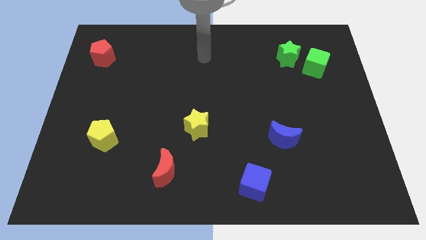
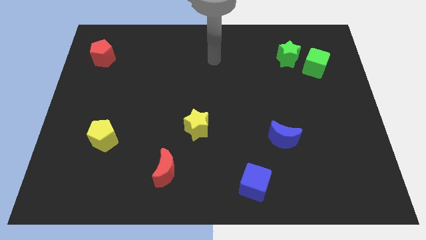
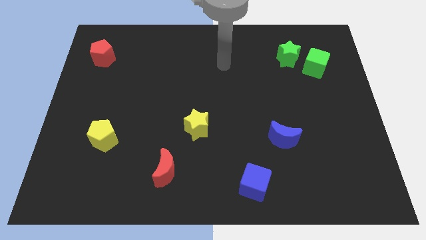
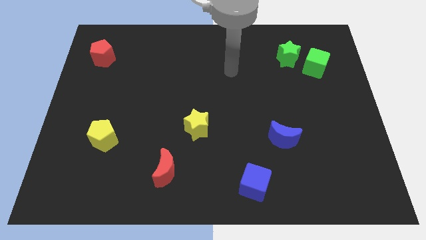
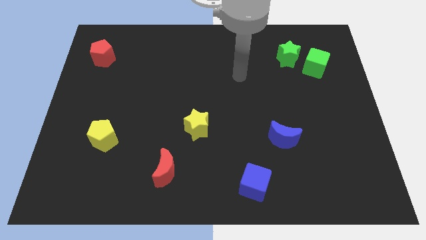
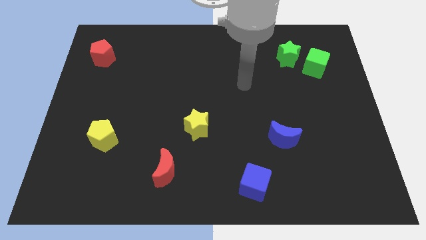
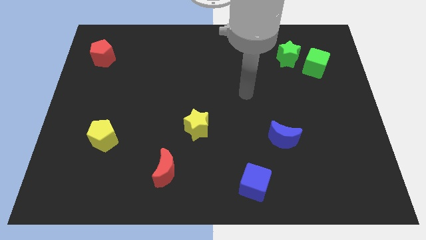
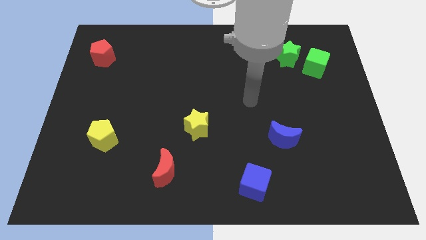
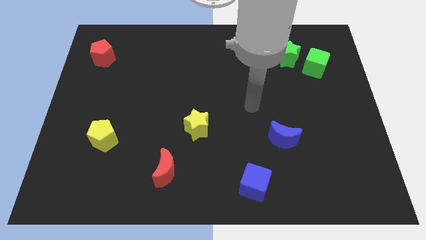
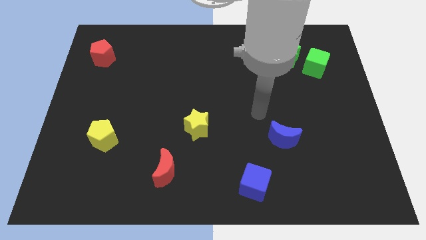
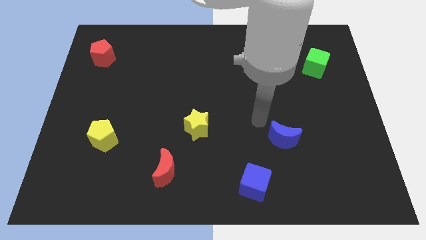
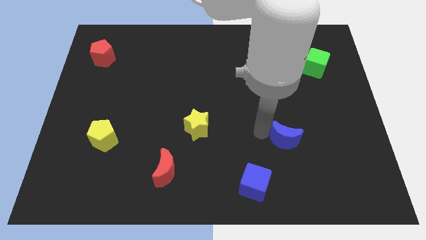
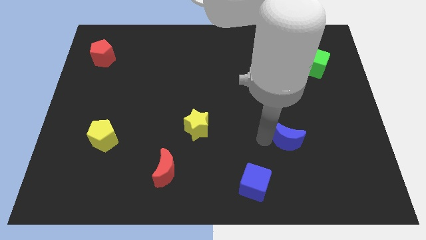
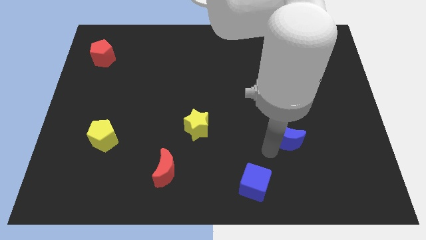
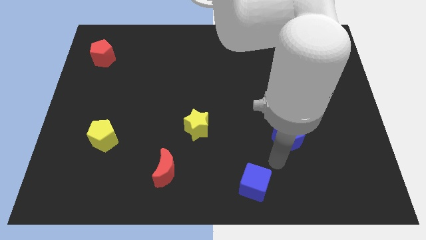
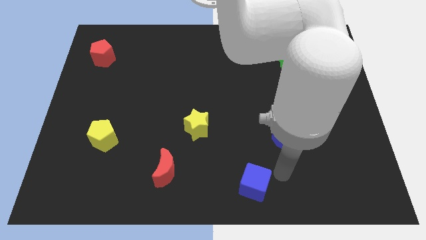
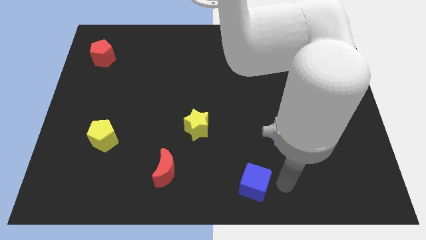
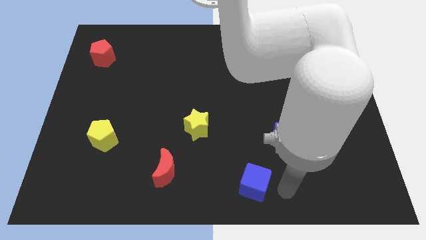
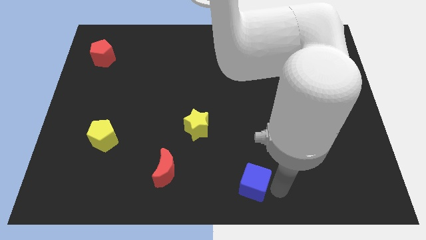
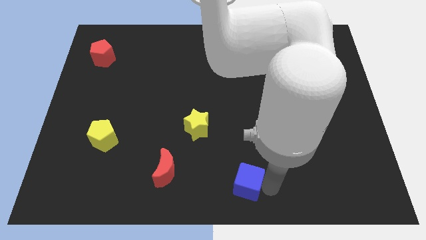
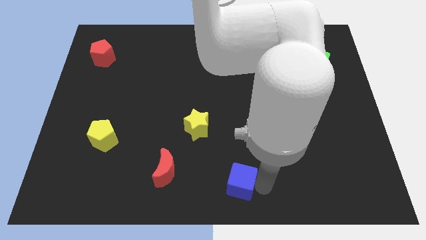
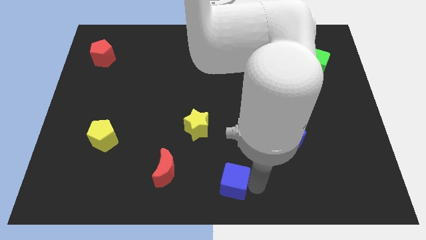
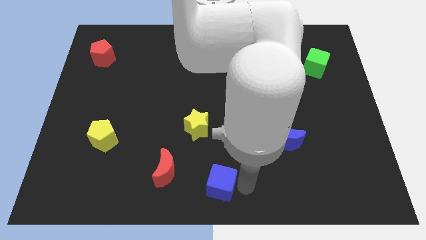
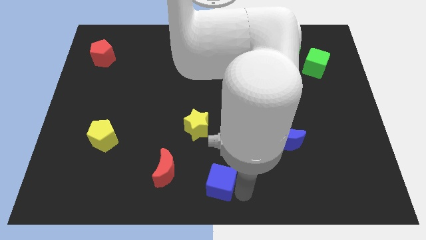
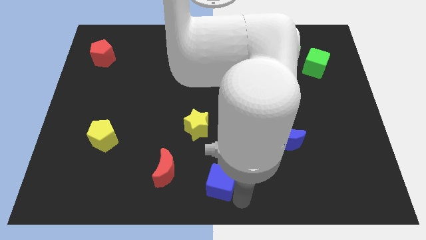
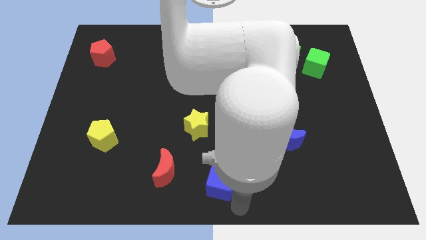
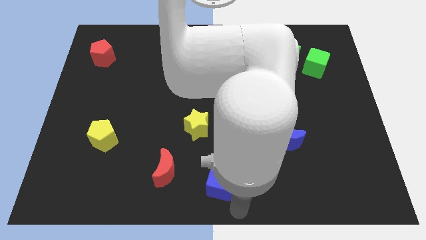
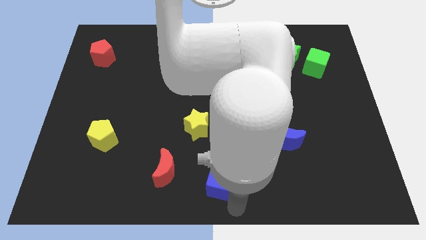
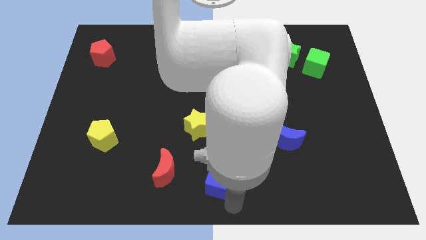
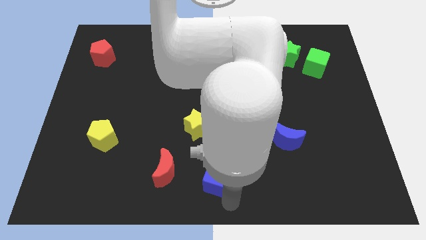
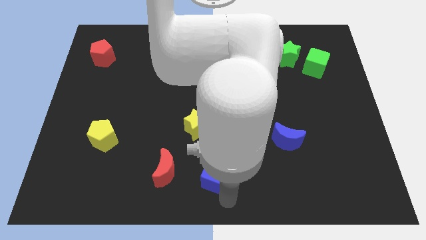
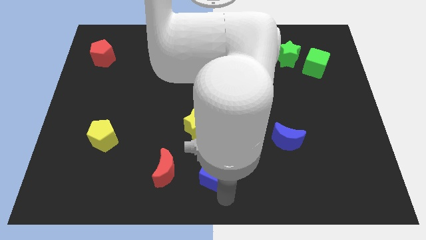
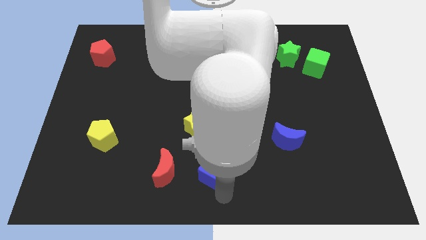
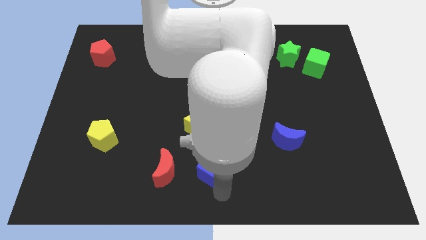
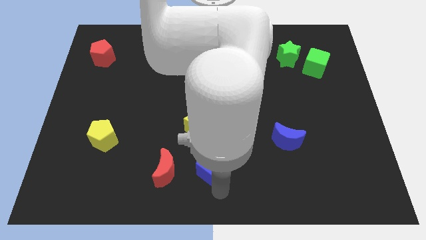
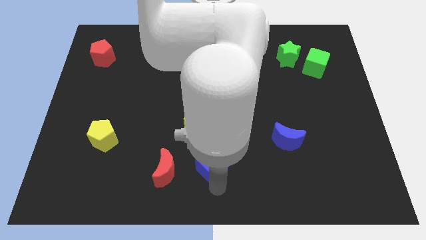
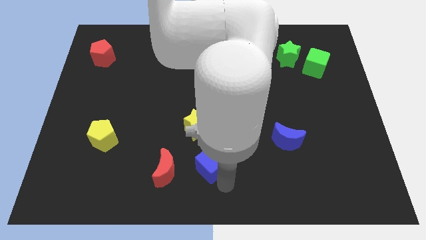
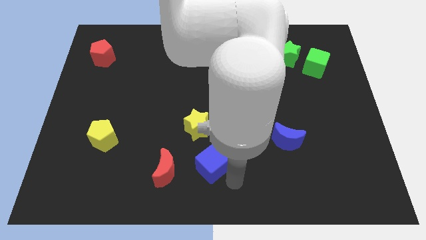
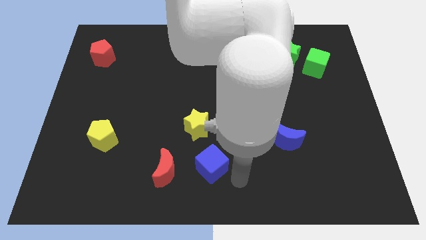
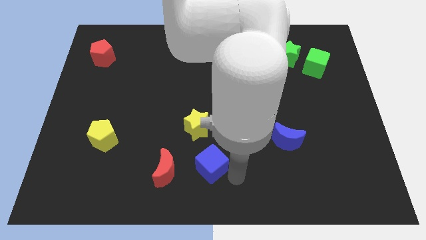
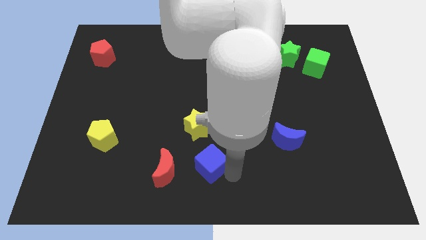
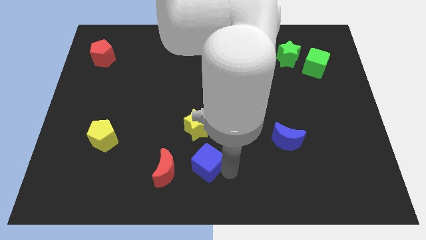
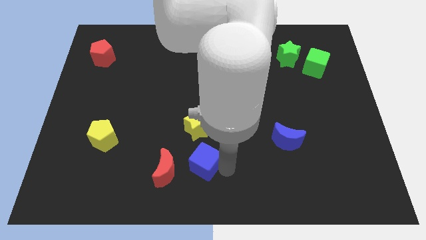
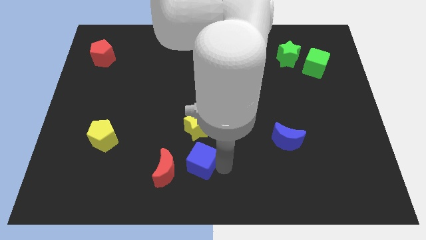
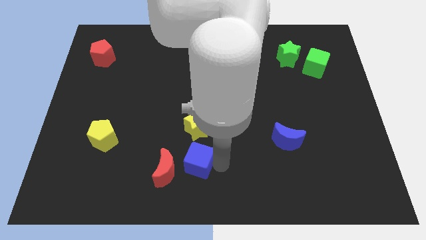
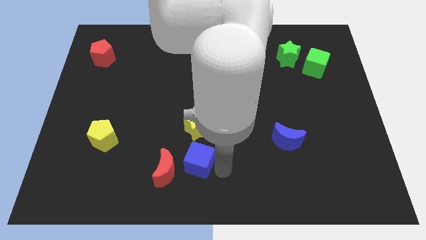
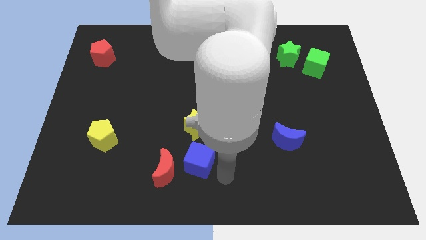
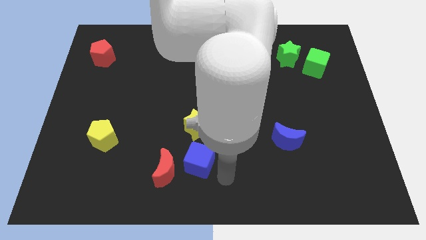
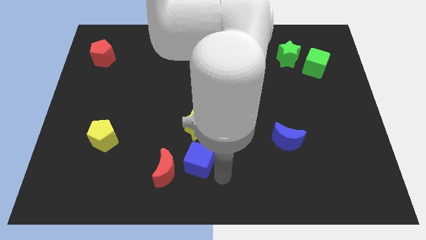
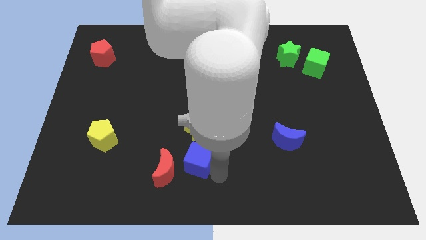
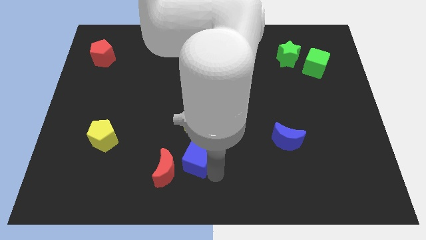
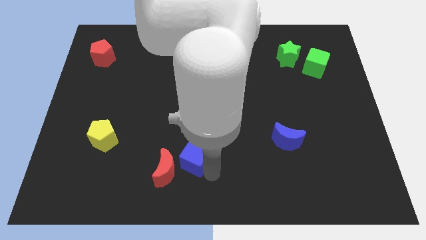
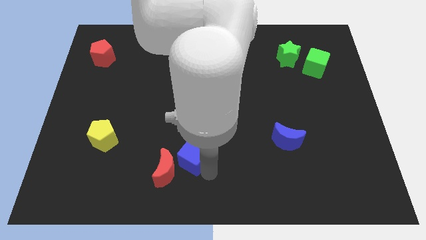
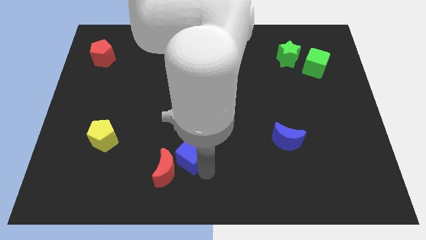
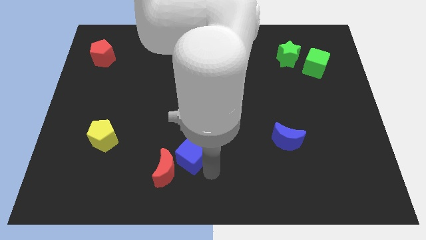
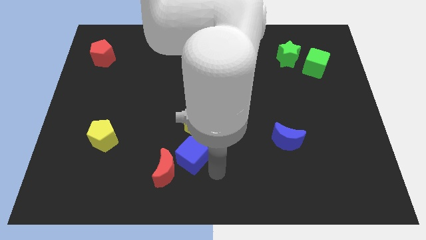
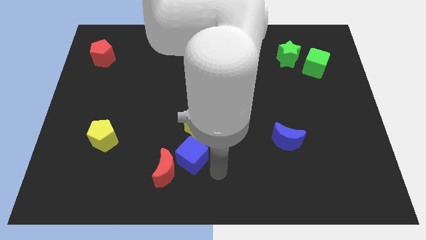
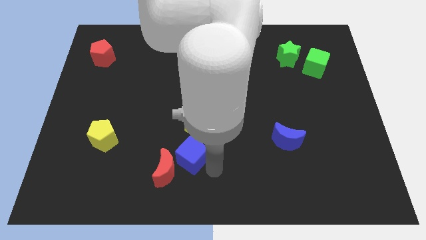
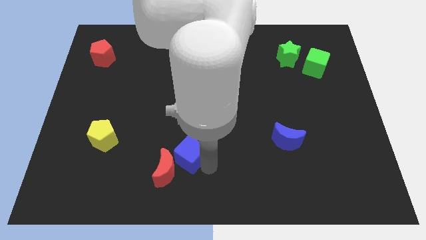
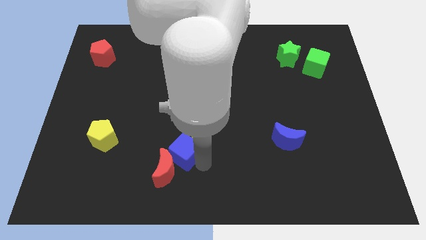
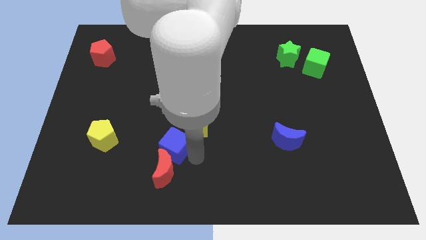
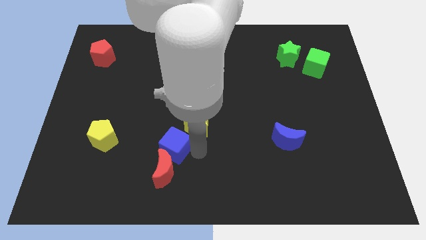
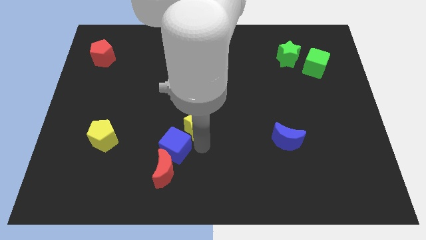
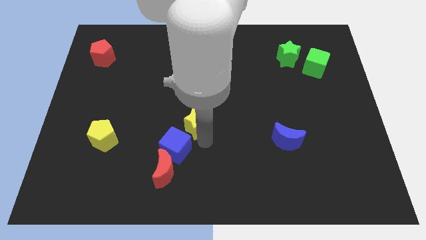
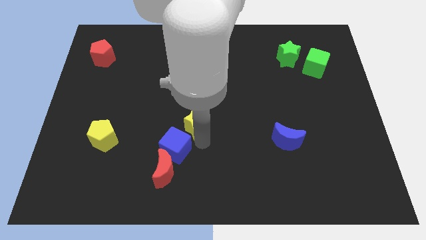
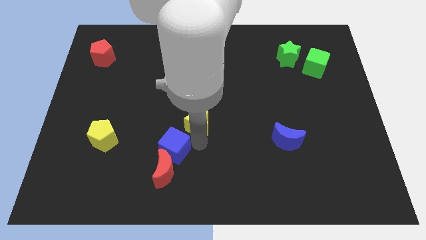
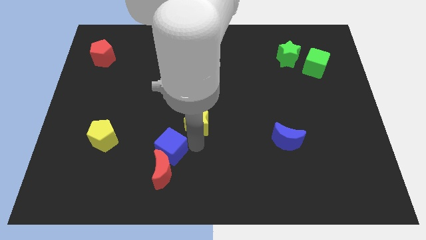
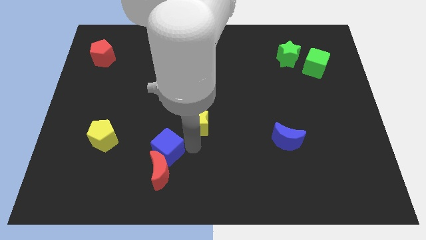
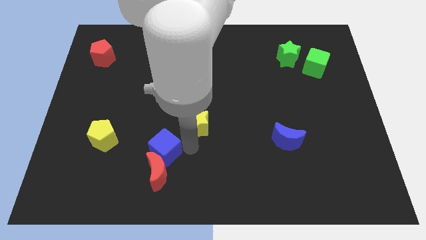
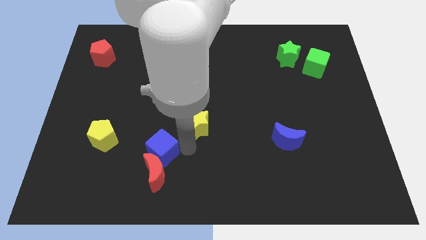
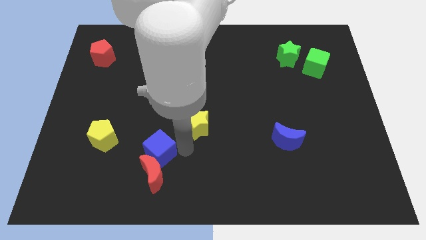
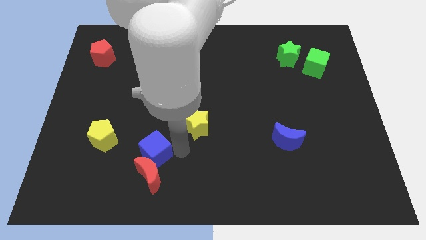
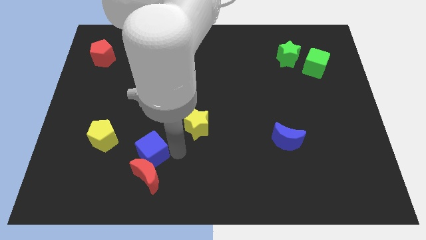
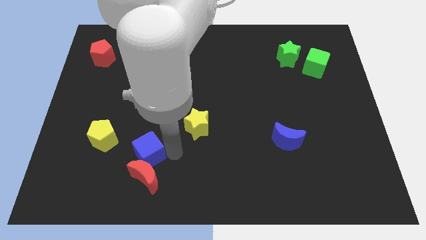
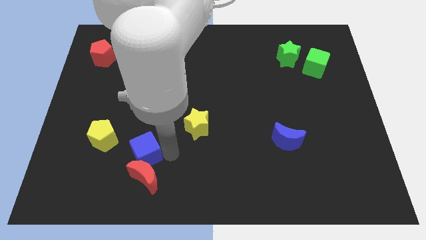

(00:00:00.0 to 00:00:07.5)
move the blue cube to the bottom right side of the yellow pentagon
